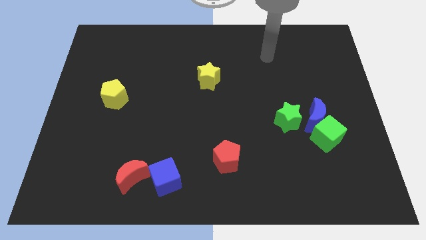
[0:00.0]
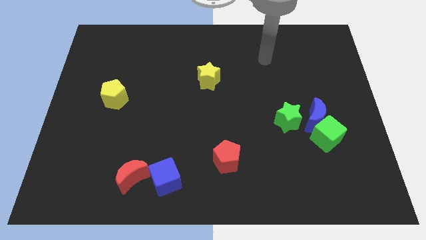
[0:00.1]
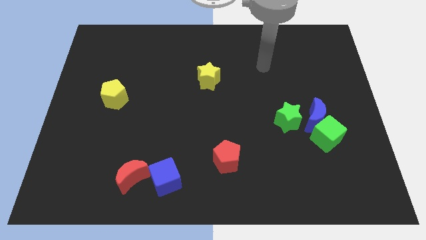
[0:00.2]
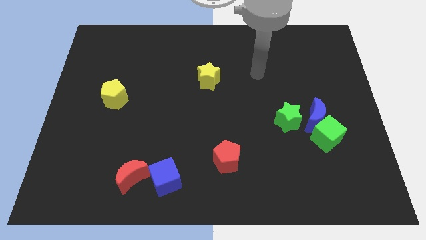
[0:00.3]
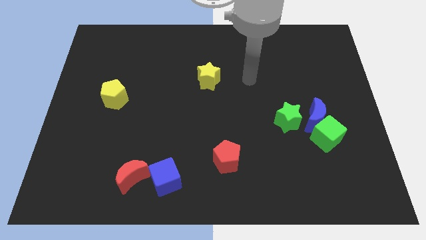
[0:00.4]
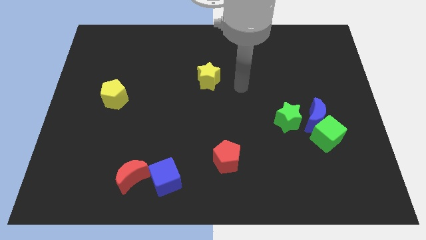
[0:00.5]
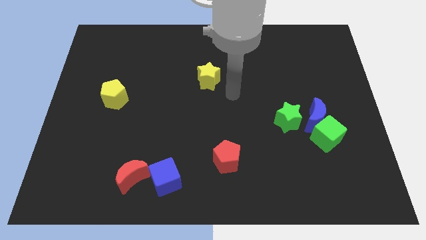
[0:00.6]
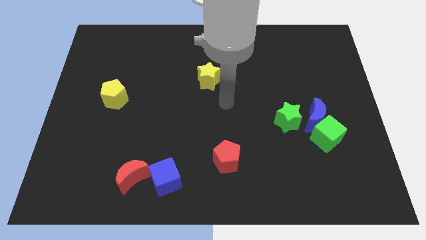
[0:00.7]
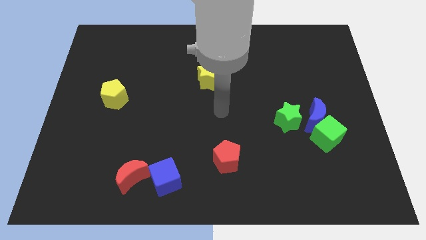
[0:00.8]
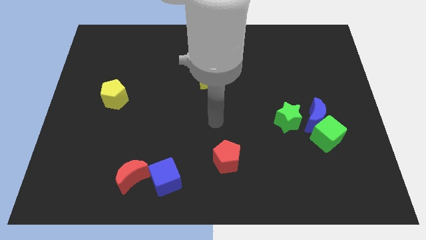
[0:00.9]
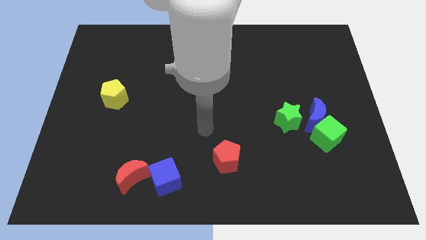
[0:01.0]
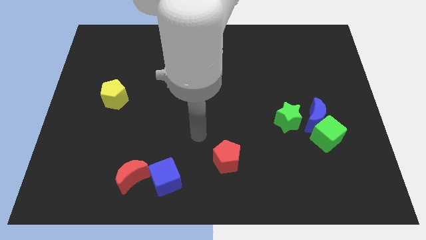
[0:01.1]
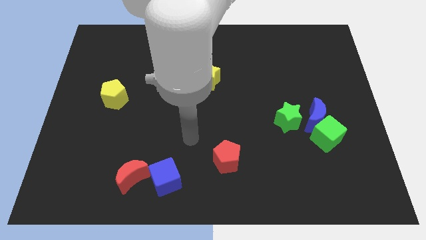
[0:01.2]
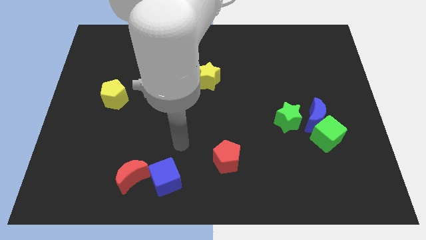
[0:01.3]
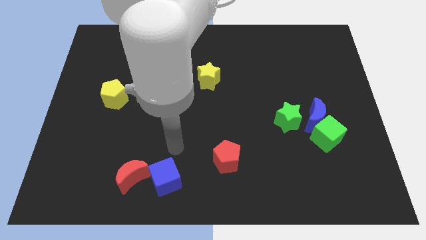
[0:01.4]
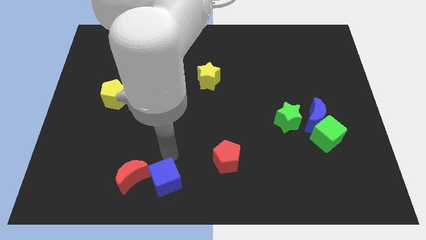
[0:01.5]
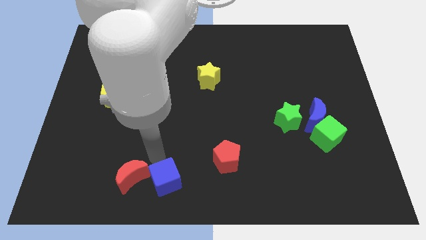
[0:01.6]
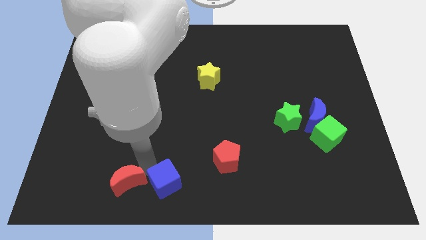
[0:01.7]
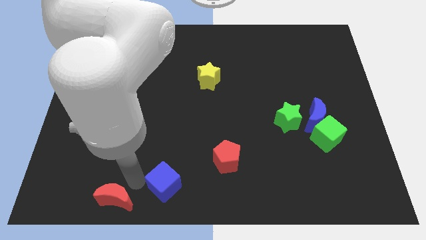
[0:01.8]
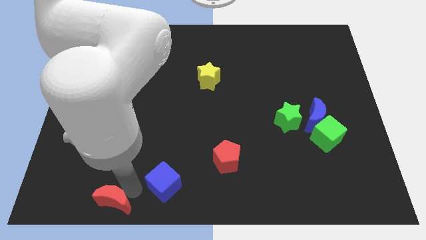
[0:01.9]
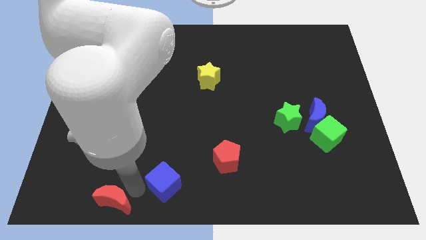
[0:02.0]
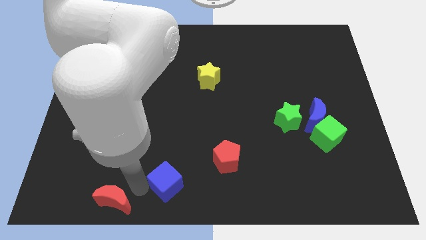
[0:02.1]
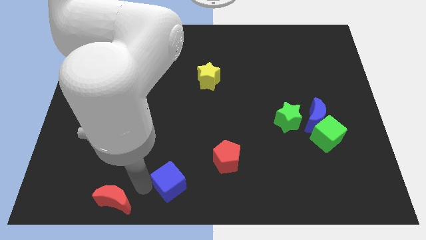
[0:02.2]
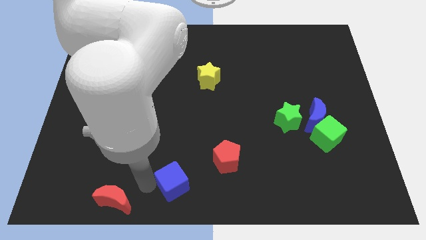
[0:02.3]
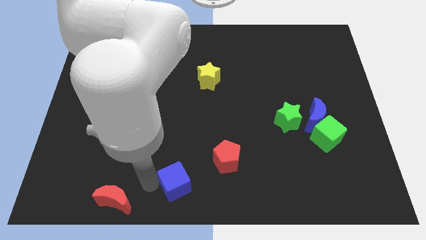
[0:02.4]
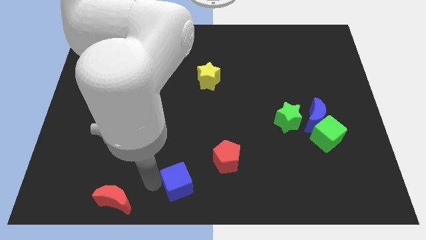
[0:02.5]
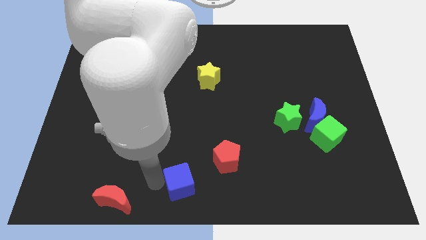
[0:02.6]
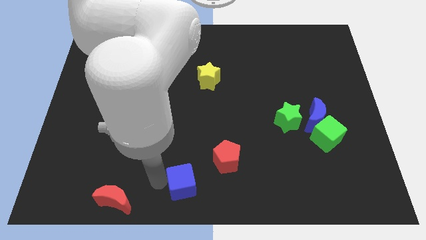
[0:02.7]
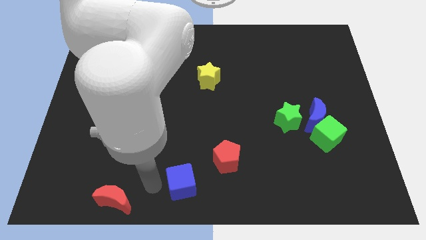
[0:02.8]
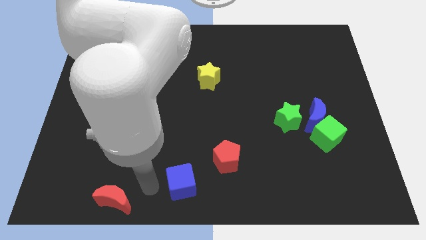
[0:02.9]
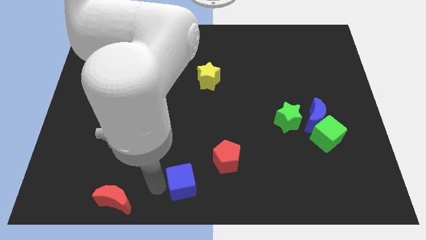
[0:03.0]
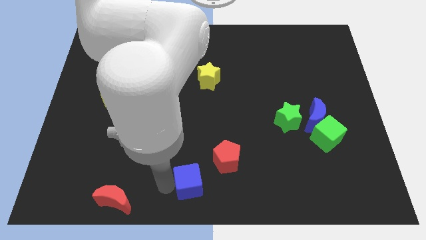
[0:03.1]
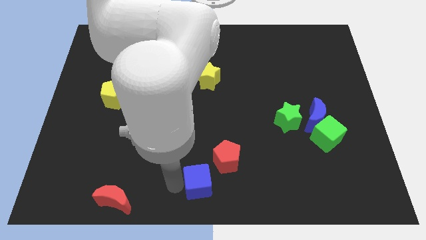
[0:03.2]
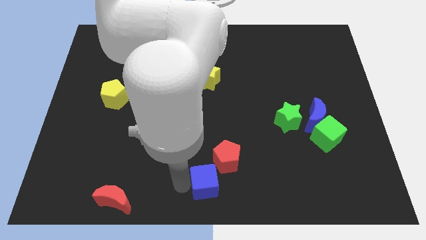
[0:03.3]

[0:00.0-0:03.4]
move the blue cube somewhat right

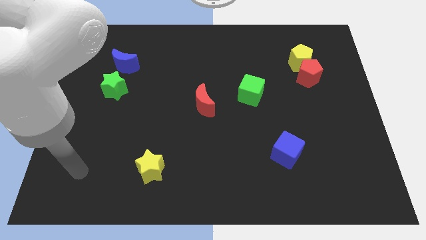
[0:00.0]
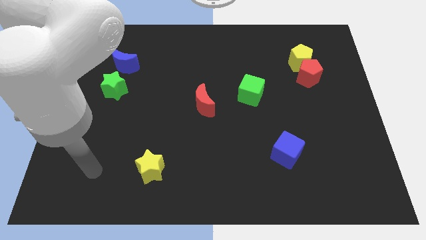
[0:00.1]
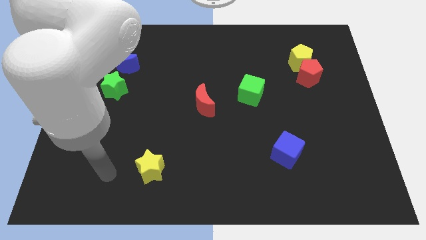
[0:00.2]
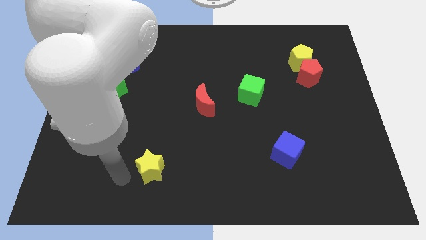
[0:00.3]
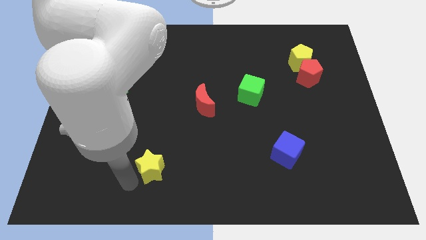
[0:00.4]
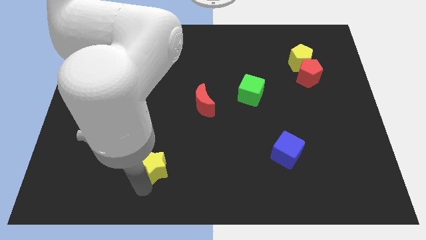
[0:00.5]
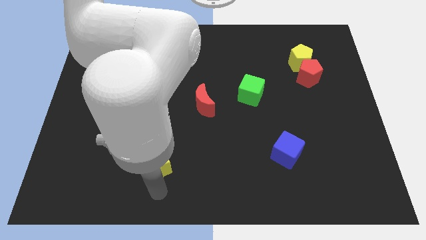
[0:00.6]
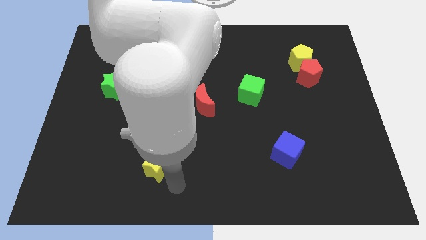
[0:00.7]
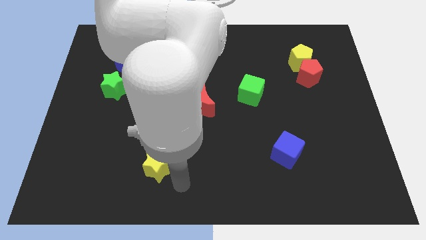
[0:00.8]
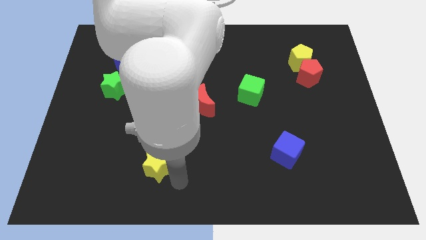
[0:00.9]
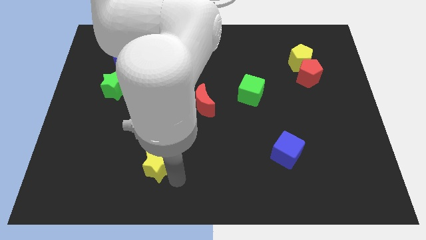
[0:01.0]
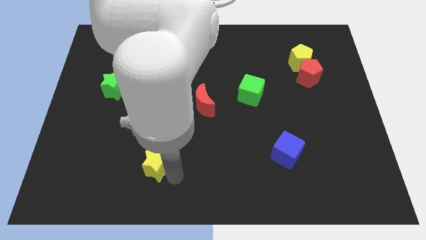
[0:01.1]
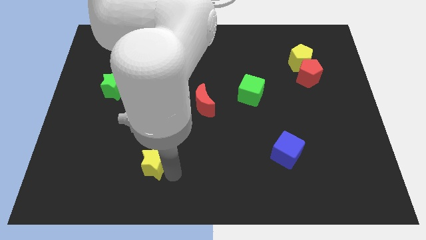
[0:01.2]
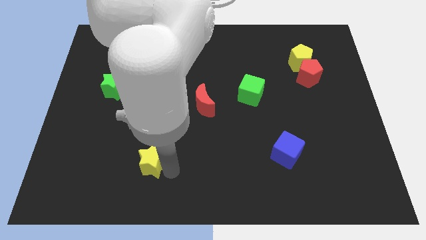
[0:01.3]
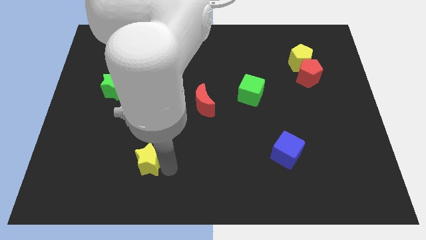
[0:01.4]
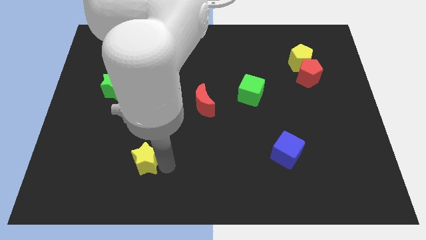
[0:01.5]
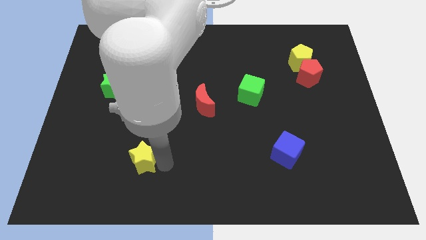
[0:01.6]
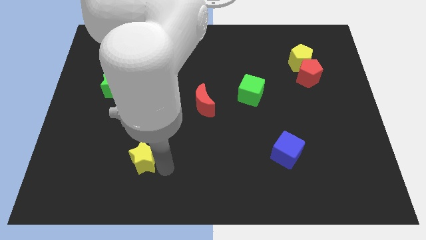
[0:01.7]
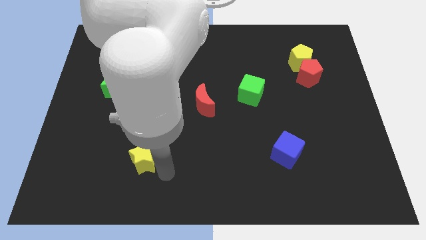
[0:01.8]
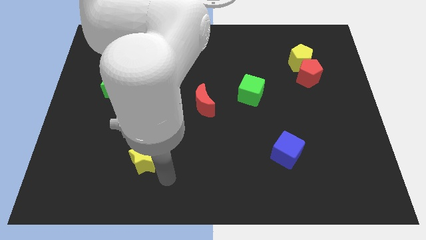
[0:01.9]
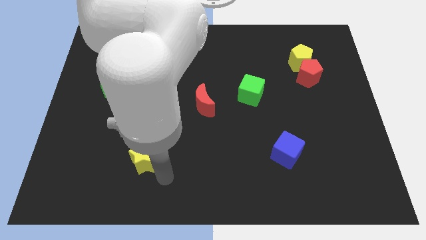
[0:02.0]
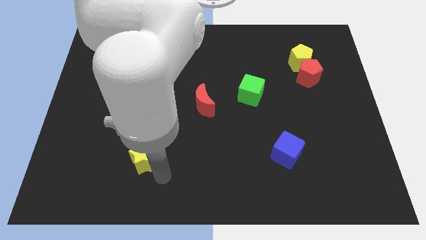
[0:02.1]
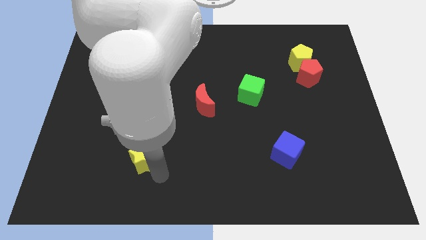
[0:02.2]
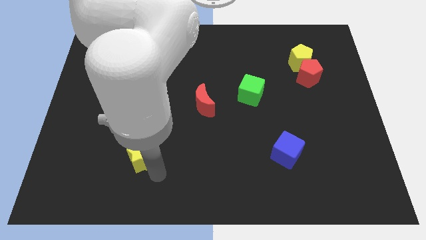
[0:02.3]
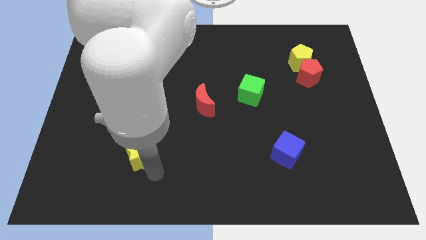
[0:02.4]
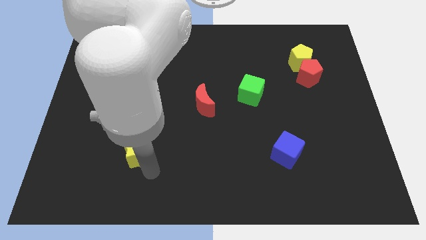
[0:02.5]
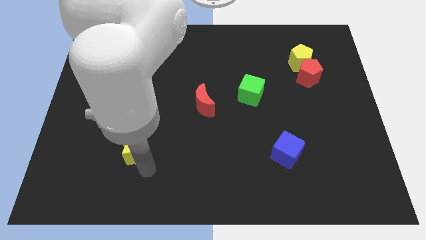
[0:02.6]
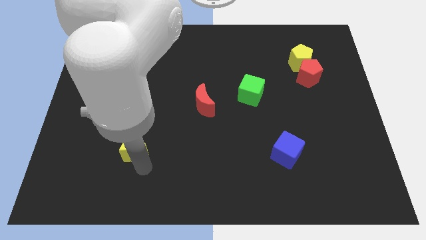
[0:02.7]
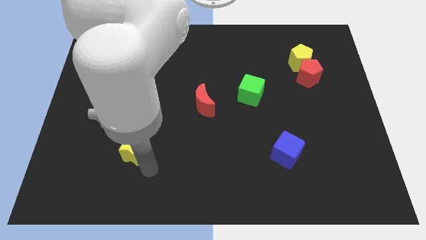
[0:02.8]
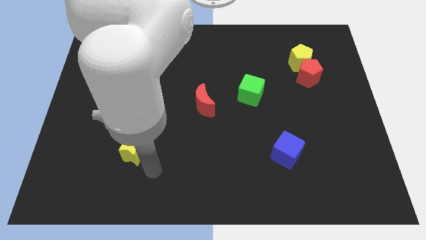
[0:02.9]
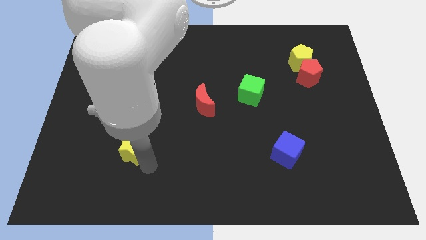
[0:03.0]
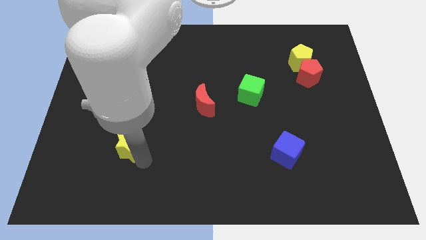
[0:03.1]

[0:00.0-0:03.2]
move the yellow star somewhat up and left diagonally

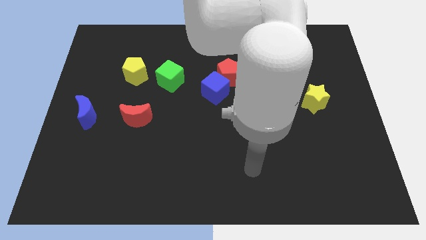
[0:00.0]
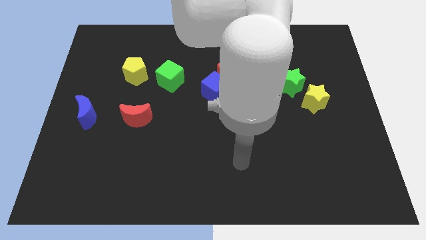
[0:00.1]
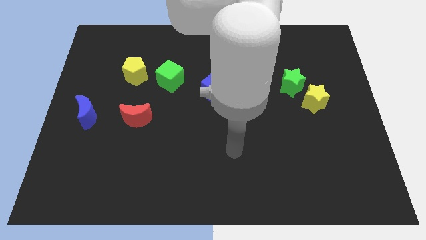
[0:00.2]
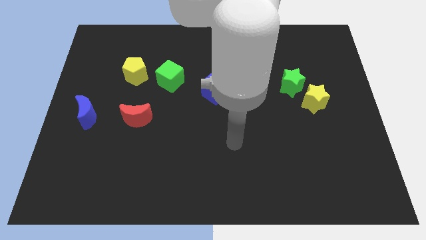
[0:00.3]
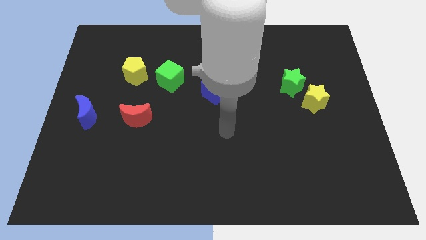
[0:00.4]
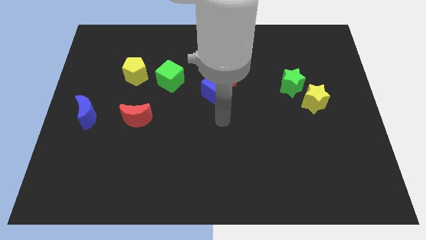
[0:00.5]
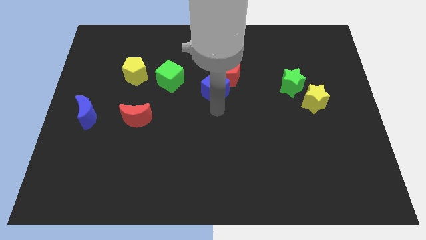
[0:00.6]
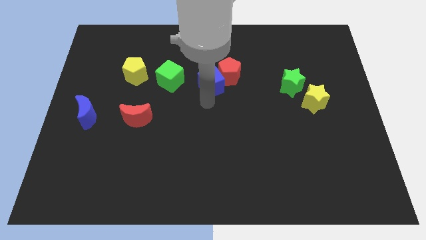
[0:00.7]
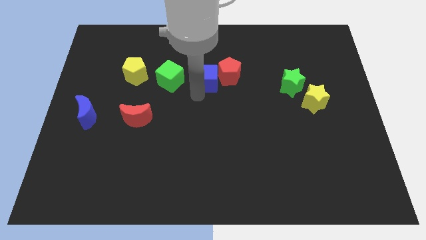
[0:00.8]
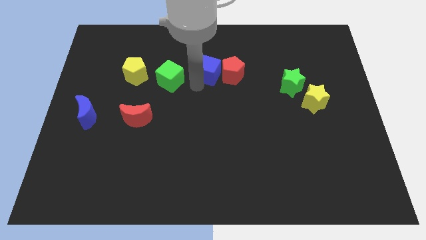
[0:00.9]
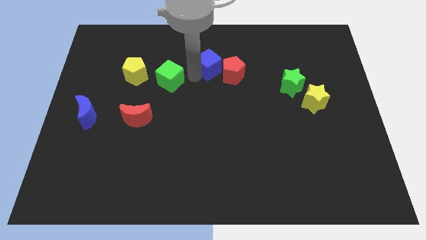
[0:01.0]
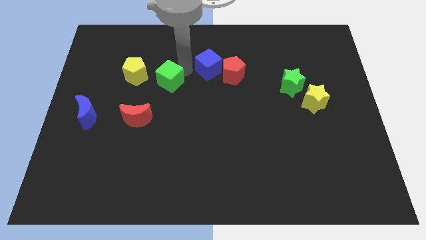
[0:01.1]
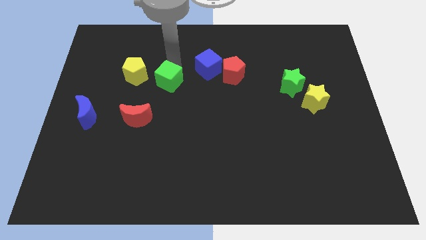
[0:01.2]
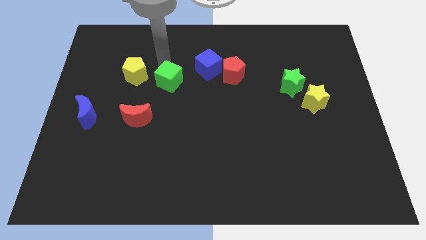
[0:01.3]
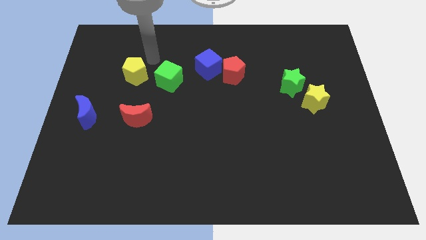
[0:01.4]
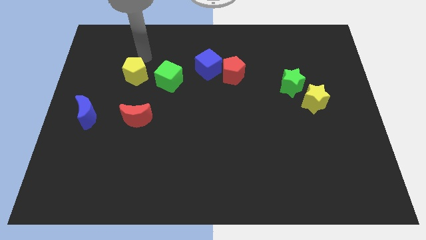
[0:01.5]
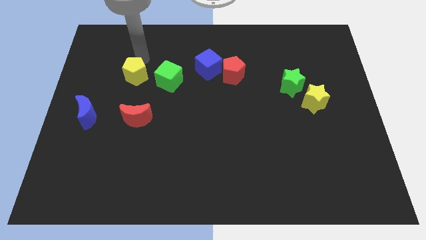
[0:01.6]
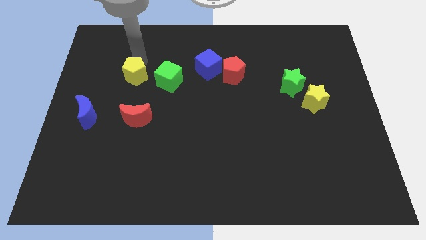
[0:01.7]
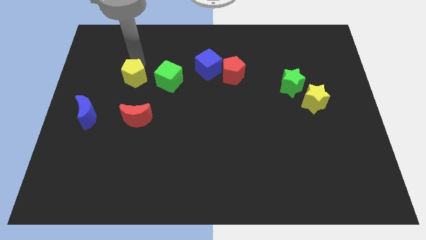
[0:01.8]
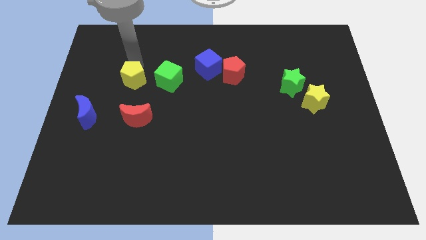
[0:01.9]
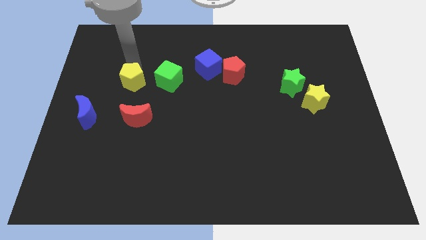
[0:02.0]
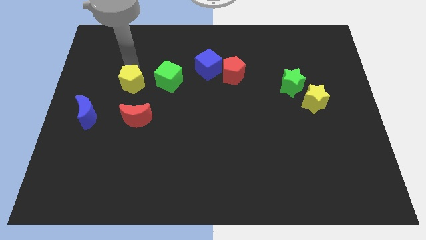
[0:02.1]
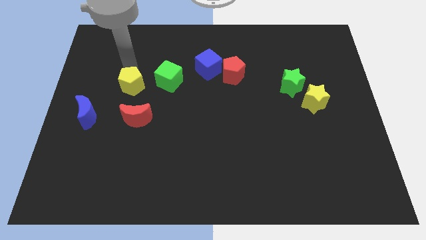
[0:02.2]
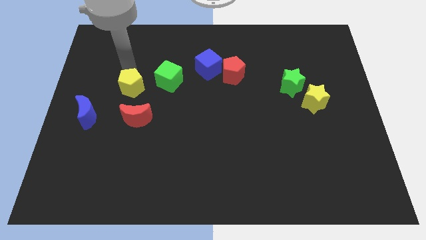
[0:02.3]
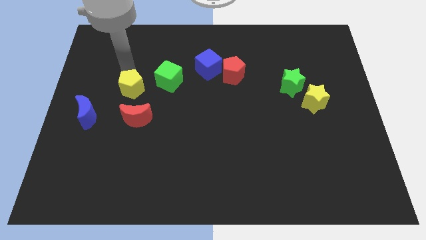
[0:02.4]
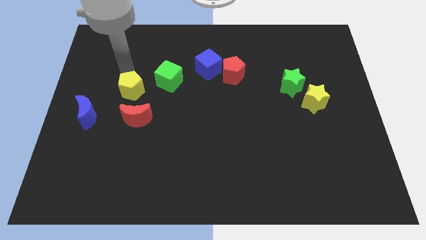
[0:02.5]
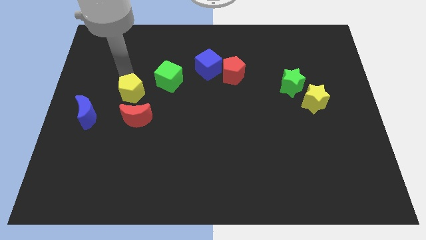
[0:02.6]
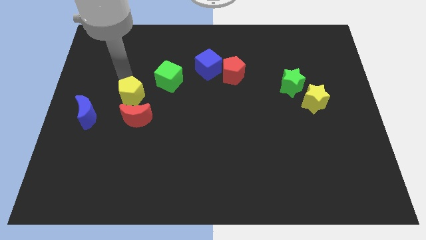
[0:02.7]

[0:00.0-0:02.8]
slightly slide the yellow pentagon downwards
